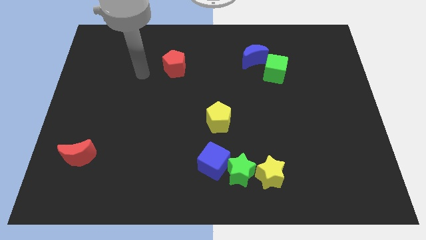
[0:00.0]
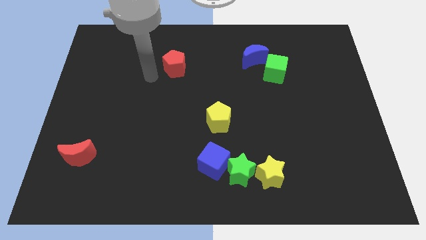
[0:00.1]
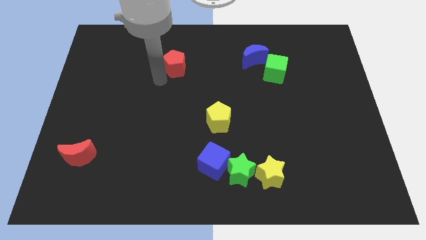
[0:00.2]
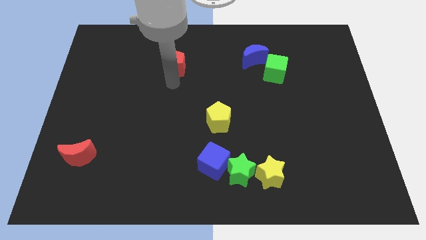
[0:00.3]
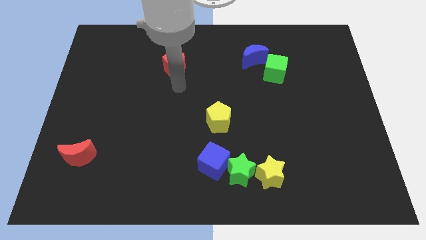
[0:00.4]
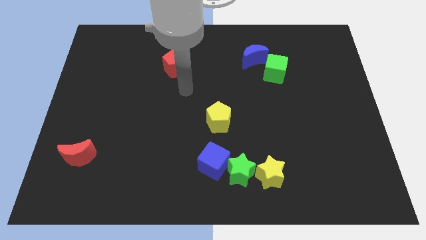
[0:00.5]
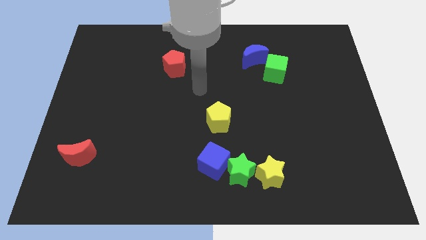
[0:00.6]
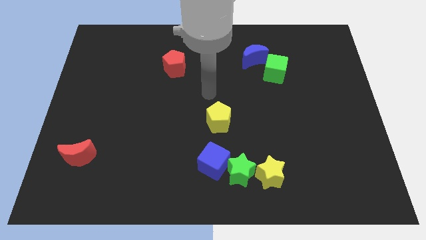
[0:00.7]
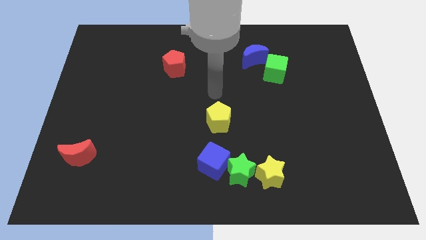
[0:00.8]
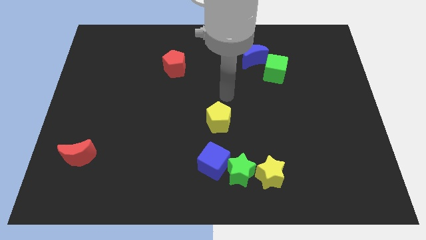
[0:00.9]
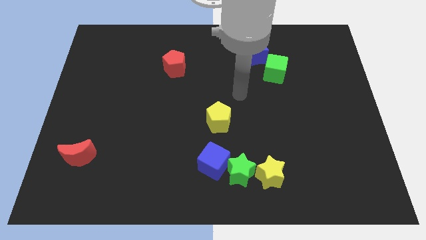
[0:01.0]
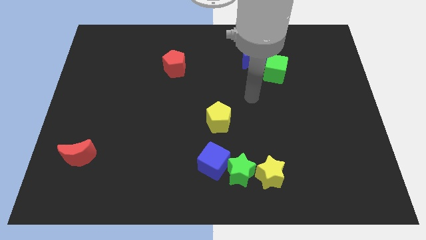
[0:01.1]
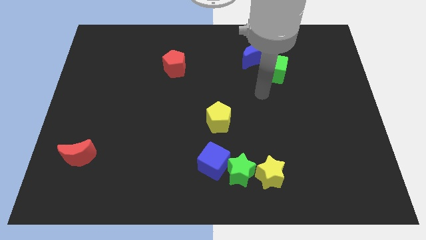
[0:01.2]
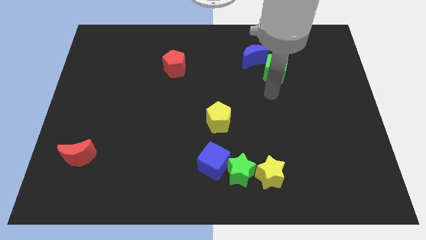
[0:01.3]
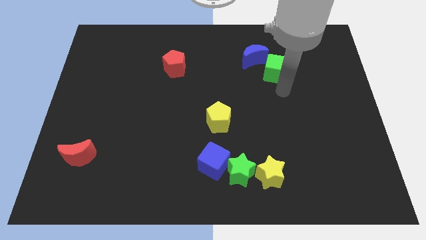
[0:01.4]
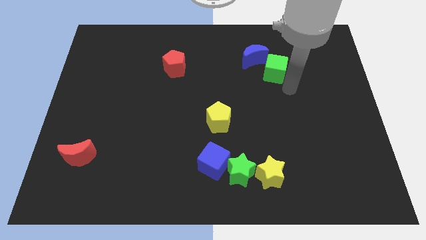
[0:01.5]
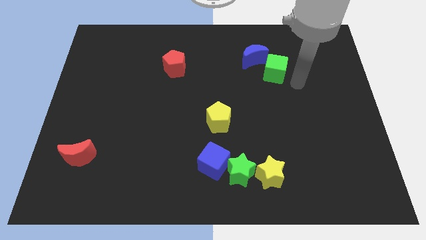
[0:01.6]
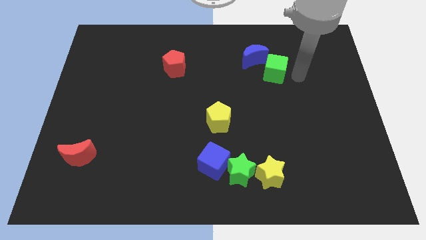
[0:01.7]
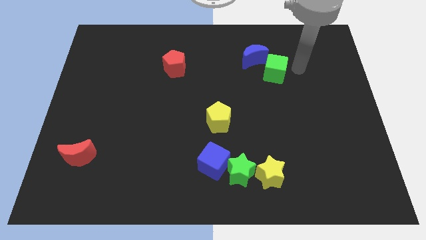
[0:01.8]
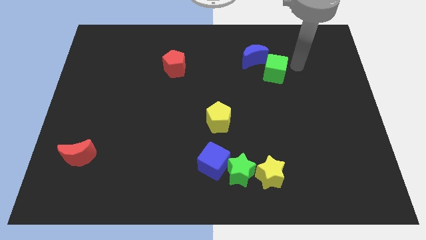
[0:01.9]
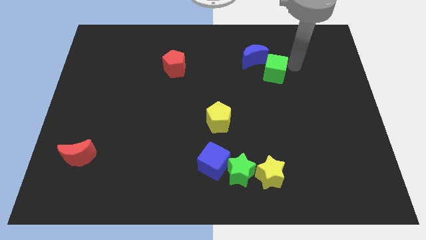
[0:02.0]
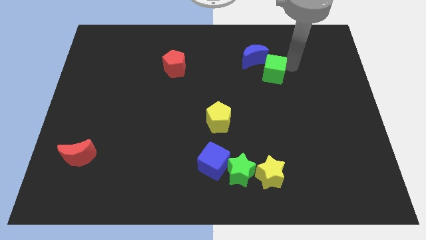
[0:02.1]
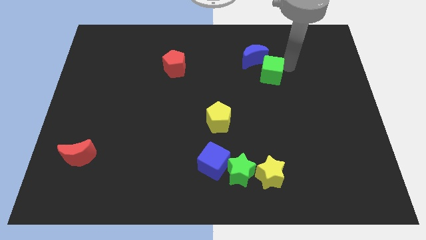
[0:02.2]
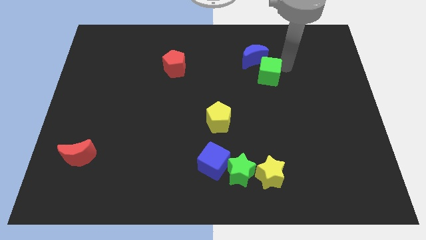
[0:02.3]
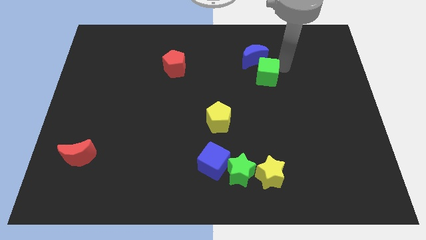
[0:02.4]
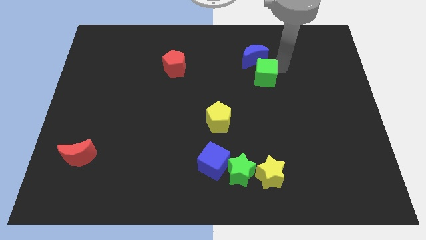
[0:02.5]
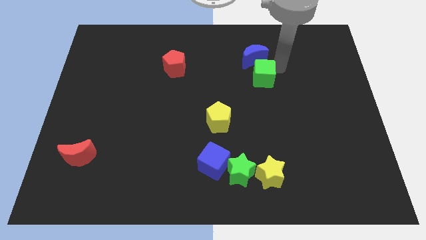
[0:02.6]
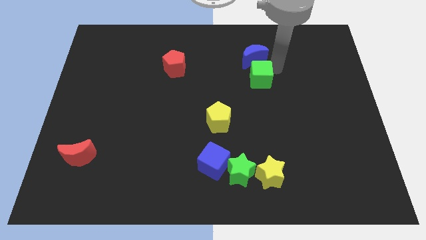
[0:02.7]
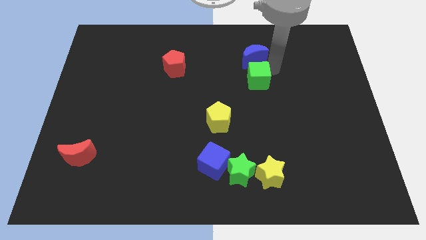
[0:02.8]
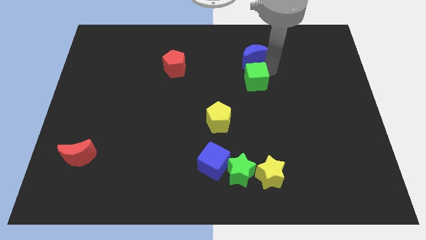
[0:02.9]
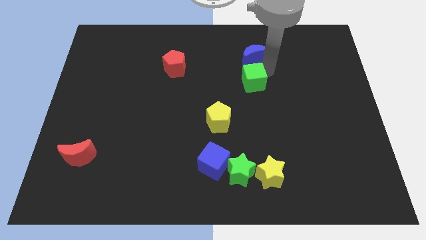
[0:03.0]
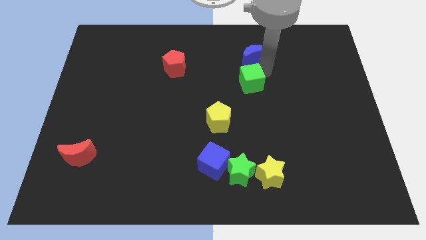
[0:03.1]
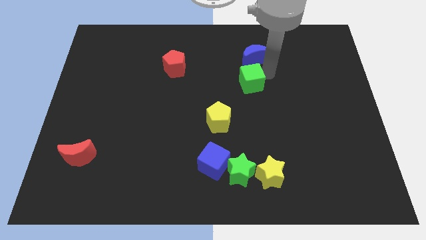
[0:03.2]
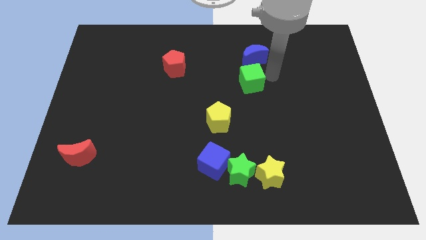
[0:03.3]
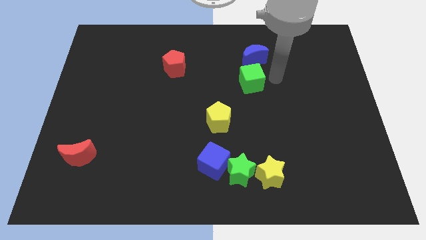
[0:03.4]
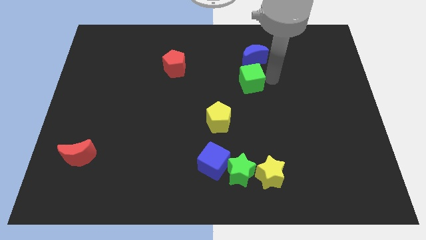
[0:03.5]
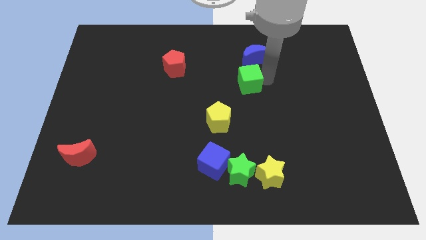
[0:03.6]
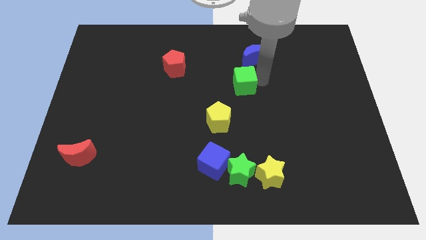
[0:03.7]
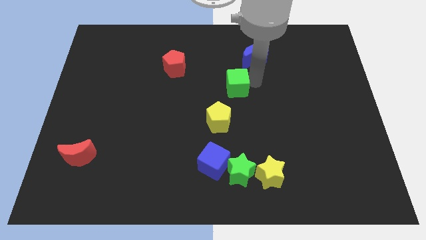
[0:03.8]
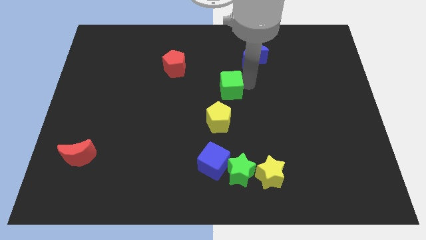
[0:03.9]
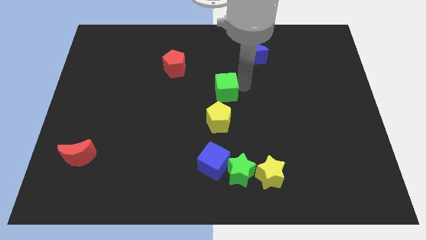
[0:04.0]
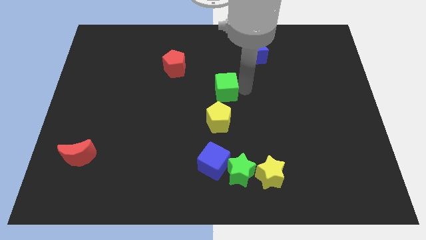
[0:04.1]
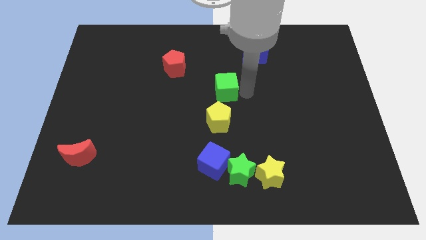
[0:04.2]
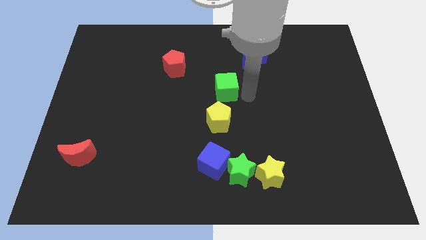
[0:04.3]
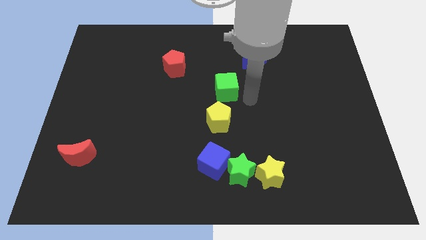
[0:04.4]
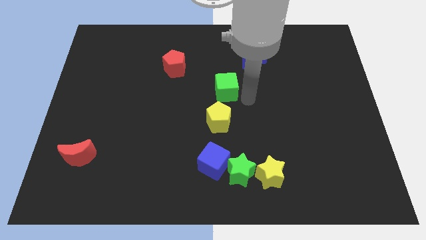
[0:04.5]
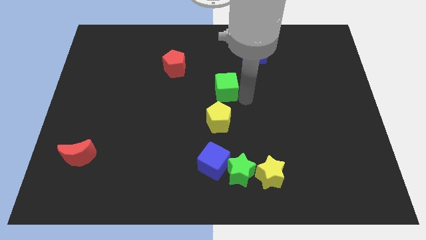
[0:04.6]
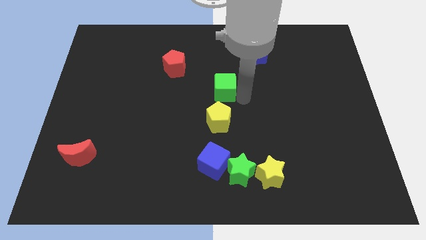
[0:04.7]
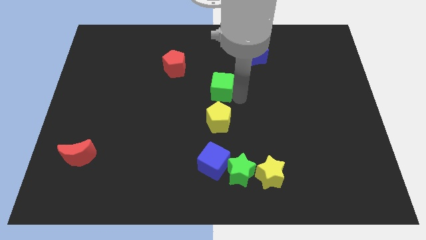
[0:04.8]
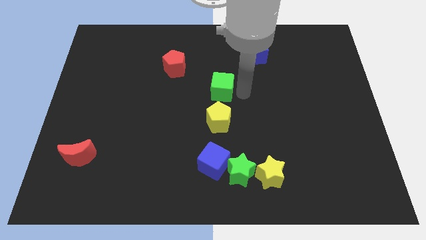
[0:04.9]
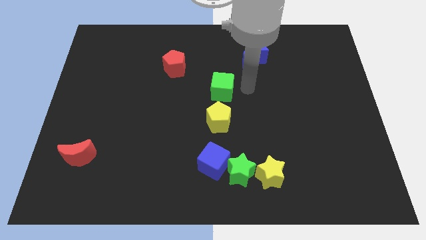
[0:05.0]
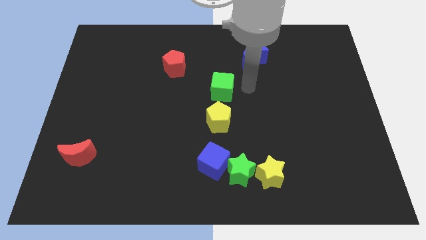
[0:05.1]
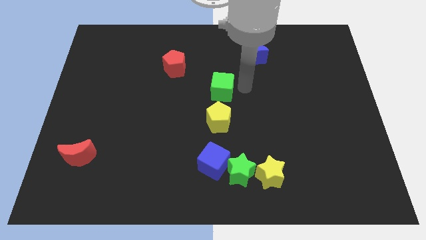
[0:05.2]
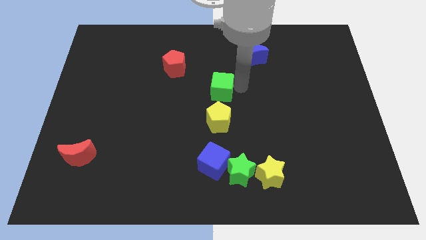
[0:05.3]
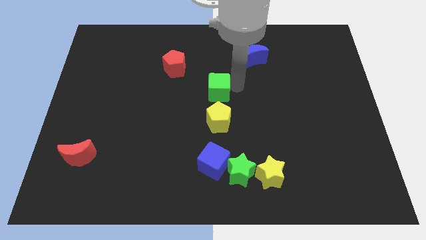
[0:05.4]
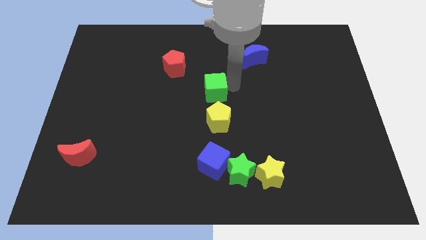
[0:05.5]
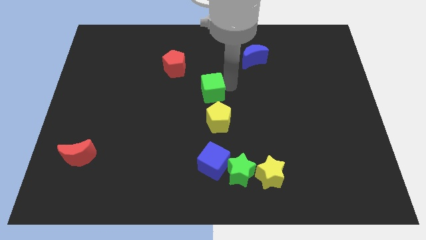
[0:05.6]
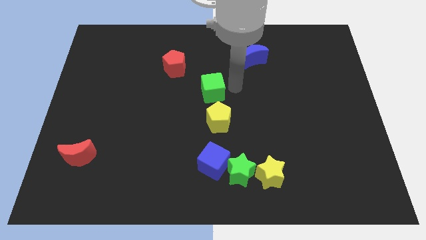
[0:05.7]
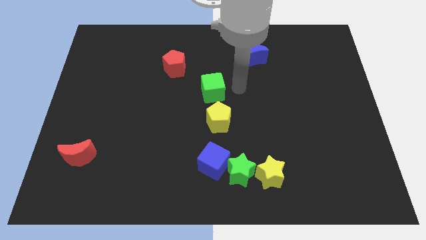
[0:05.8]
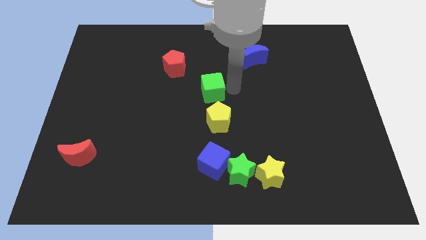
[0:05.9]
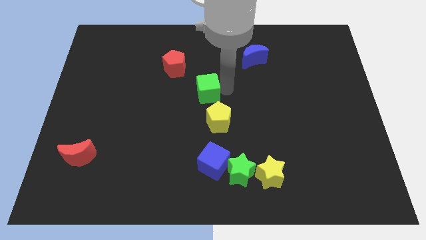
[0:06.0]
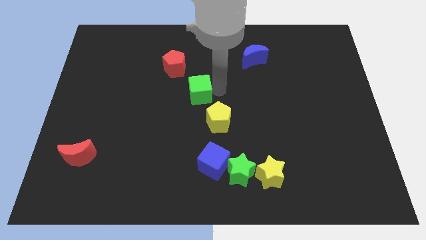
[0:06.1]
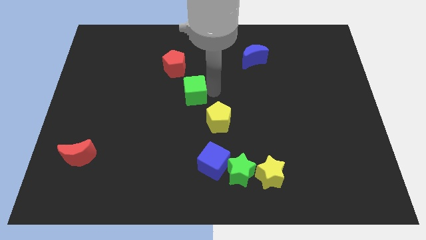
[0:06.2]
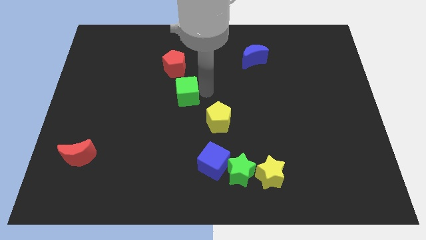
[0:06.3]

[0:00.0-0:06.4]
slide the green cube below the red pentagon
